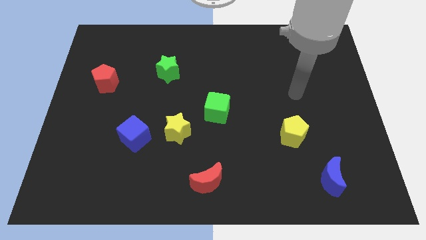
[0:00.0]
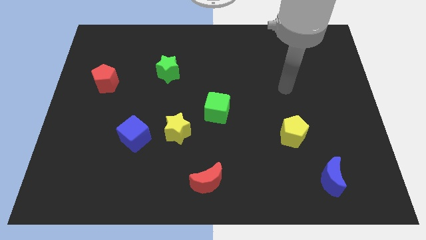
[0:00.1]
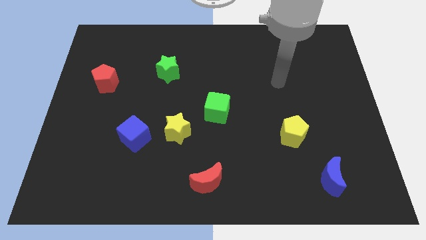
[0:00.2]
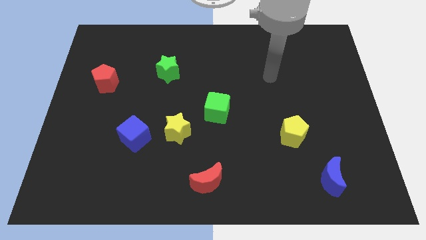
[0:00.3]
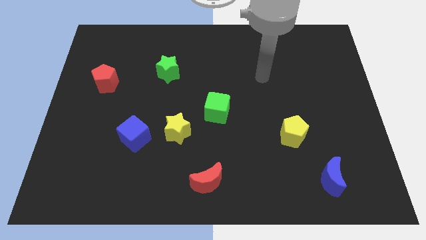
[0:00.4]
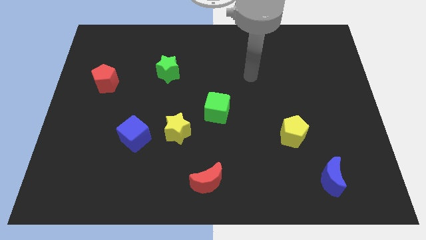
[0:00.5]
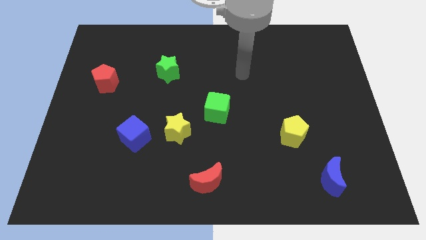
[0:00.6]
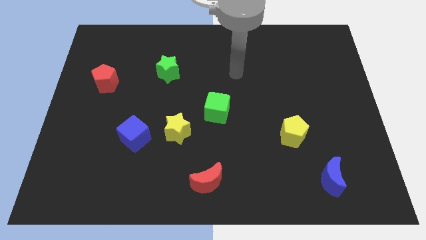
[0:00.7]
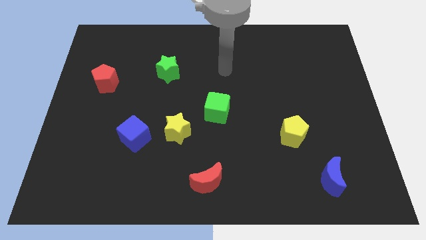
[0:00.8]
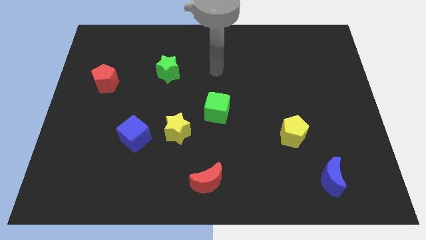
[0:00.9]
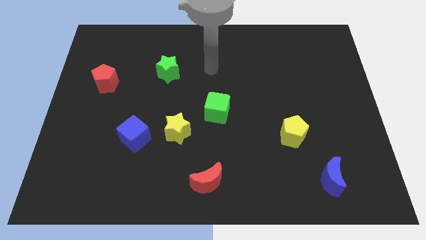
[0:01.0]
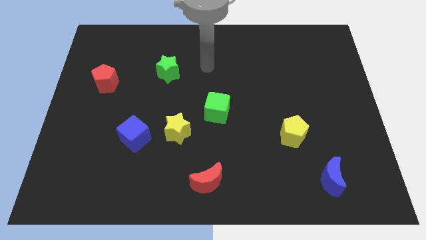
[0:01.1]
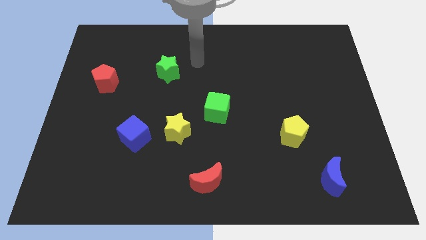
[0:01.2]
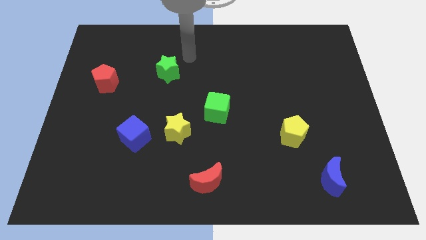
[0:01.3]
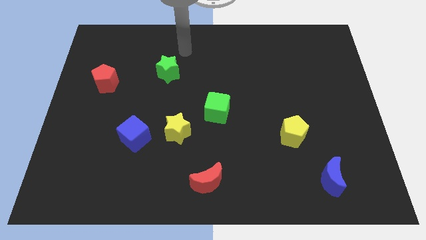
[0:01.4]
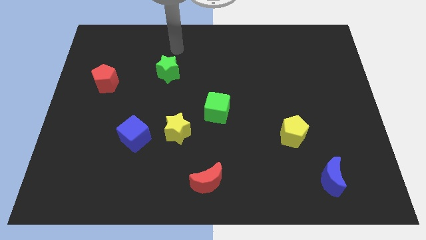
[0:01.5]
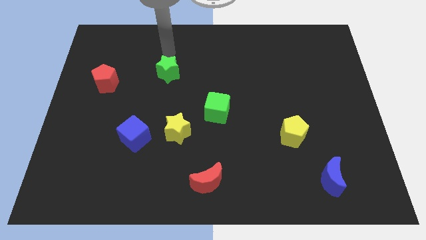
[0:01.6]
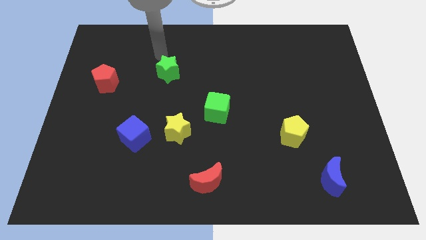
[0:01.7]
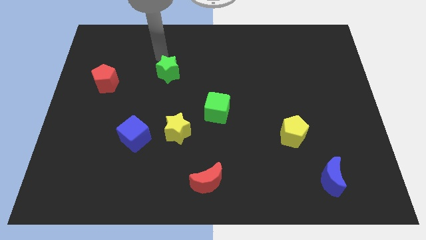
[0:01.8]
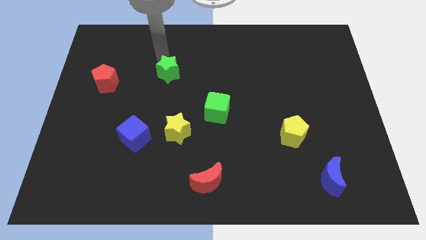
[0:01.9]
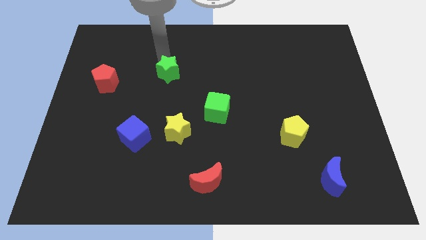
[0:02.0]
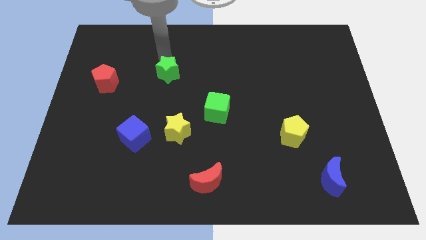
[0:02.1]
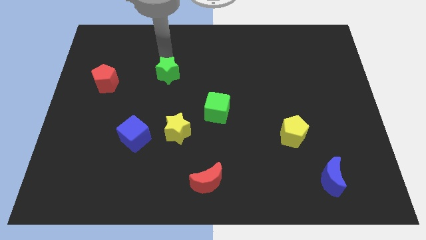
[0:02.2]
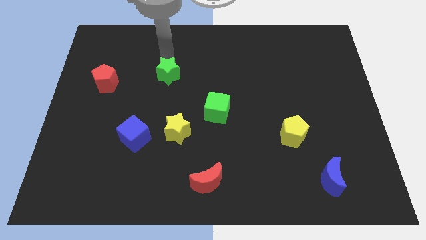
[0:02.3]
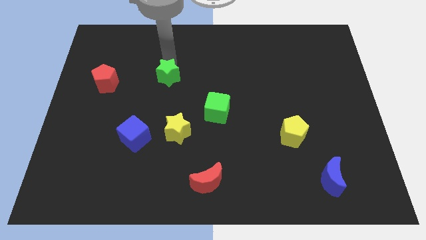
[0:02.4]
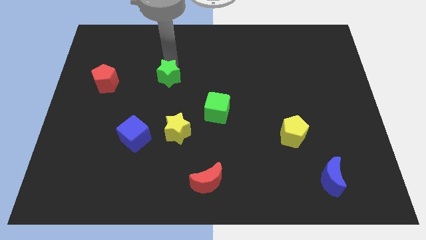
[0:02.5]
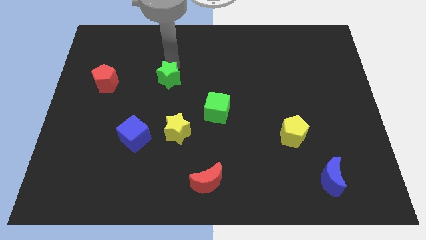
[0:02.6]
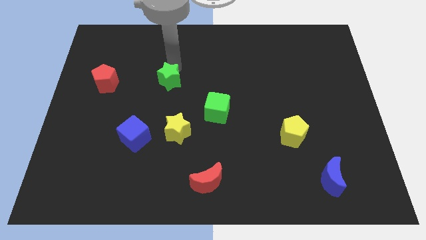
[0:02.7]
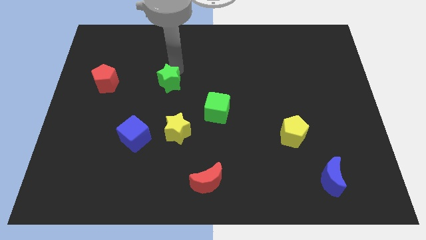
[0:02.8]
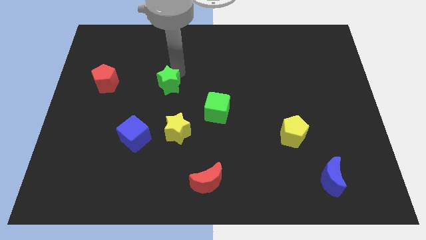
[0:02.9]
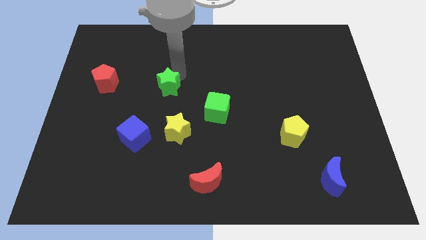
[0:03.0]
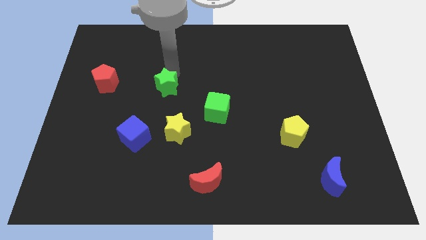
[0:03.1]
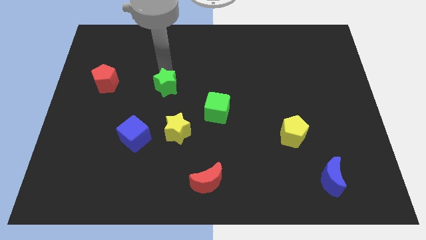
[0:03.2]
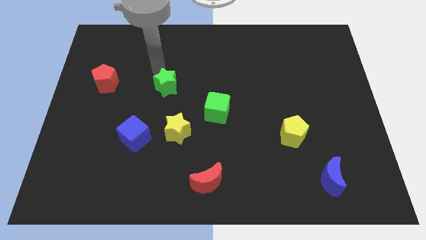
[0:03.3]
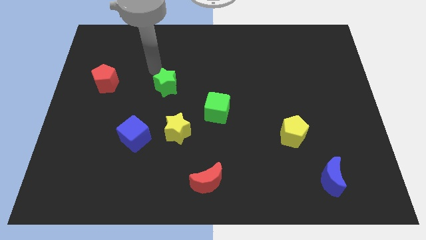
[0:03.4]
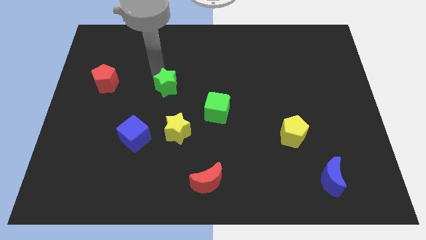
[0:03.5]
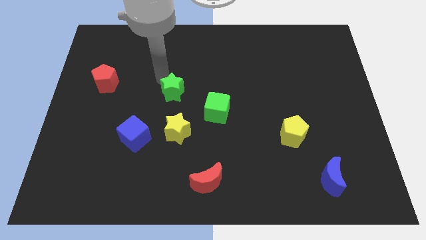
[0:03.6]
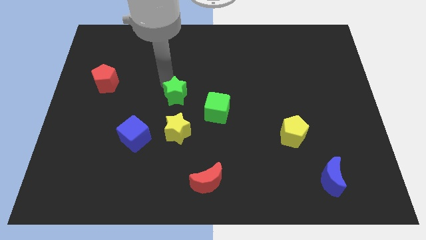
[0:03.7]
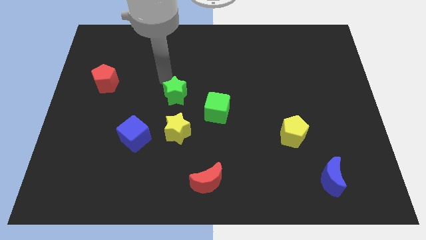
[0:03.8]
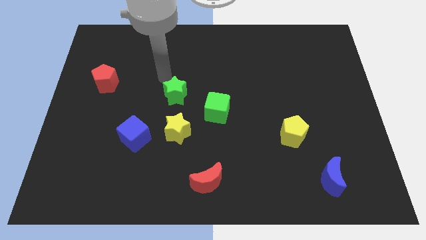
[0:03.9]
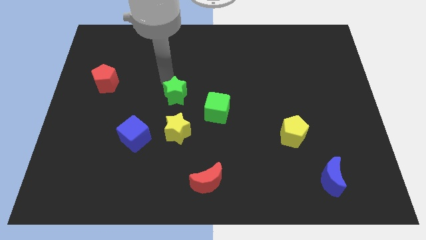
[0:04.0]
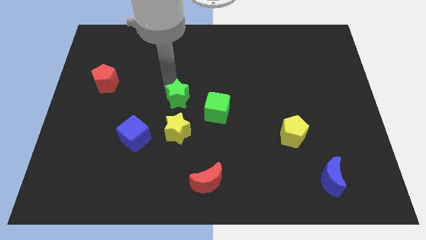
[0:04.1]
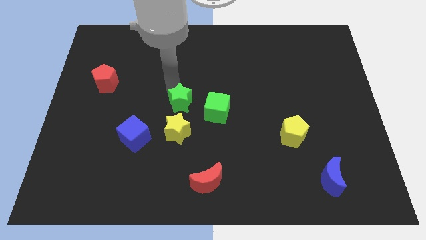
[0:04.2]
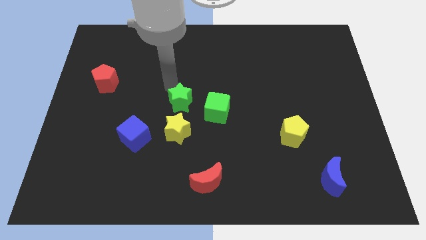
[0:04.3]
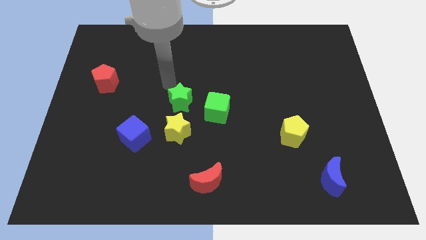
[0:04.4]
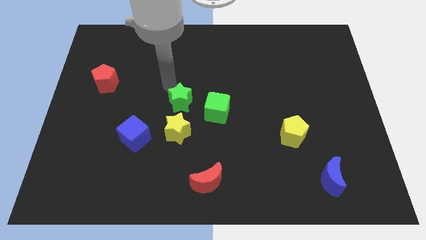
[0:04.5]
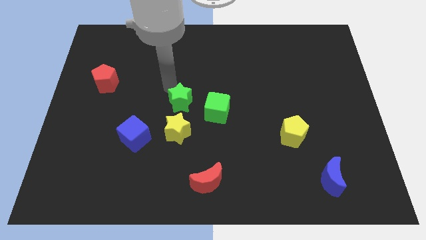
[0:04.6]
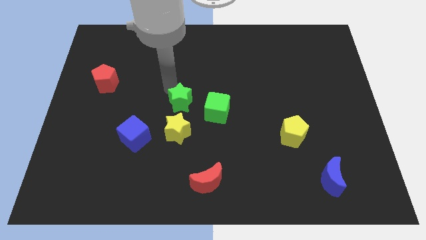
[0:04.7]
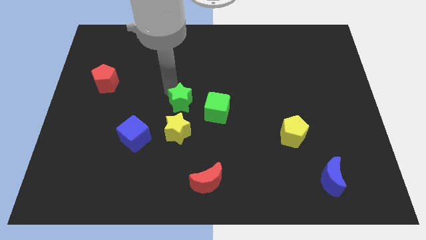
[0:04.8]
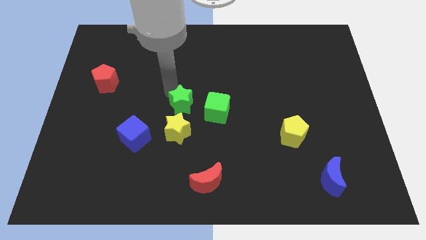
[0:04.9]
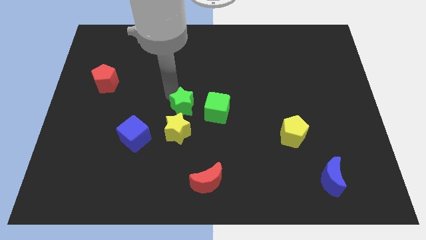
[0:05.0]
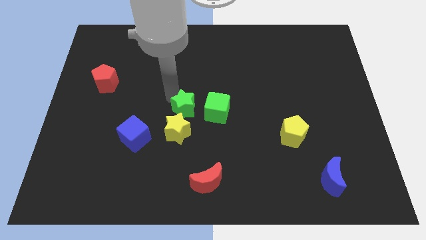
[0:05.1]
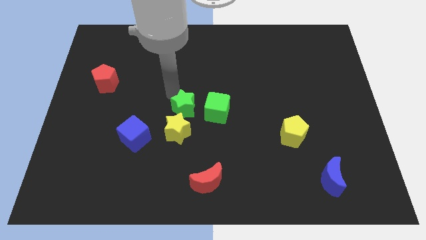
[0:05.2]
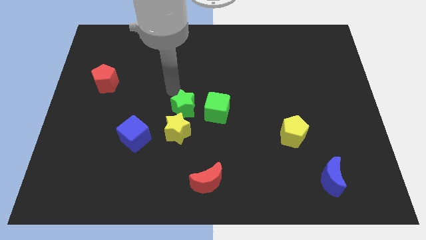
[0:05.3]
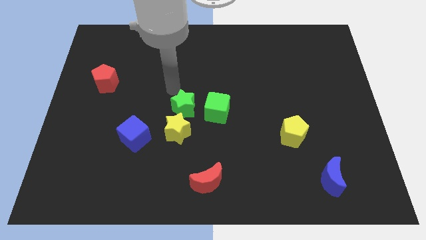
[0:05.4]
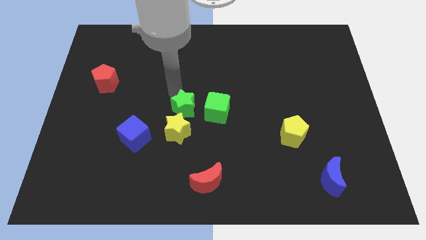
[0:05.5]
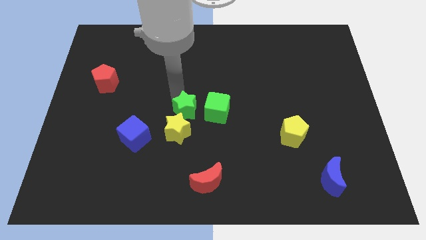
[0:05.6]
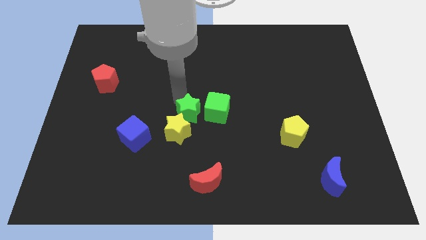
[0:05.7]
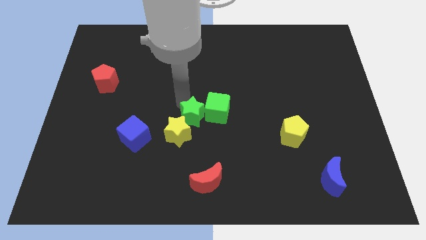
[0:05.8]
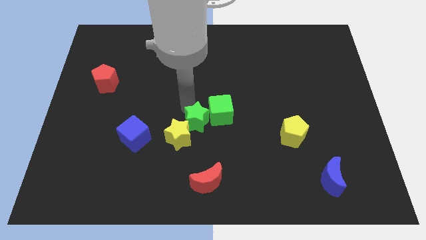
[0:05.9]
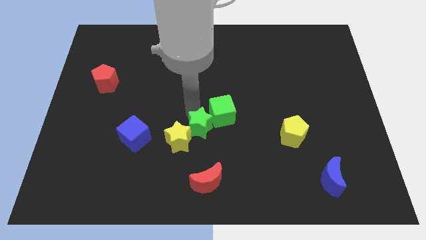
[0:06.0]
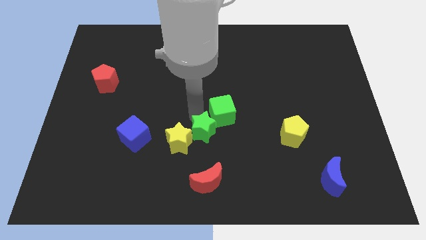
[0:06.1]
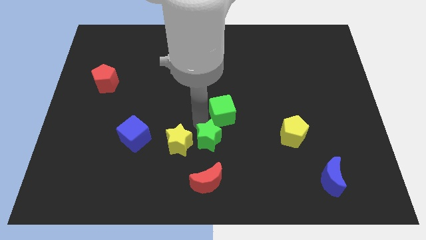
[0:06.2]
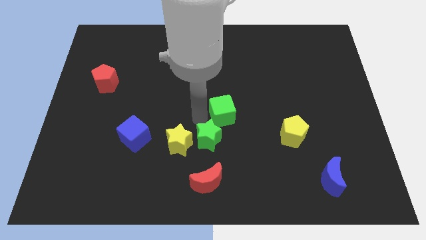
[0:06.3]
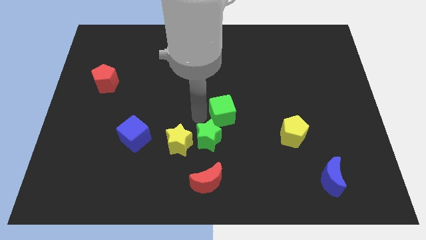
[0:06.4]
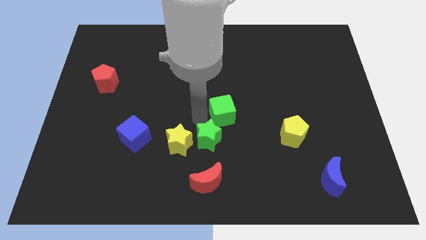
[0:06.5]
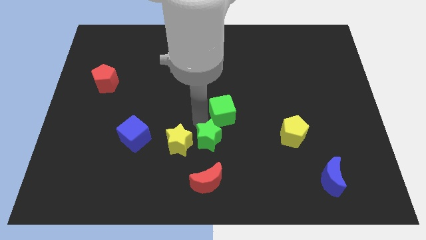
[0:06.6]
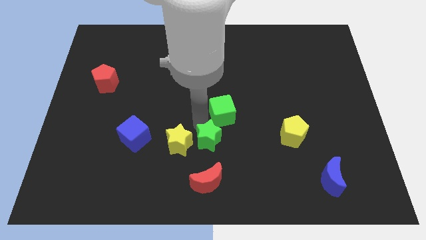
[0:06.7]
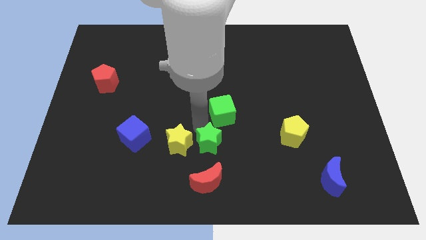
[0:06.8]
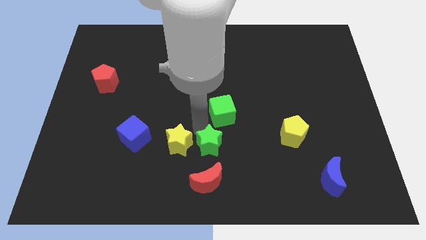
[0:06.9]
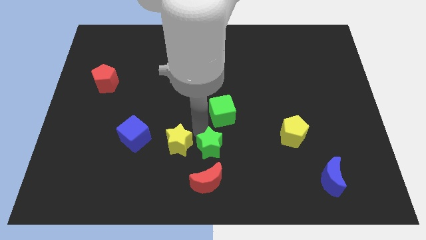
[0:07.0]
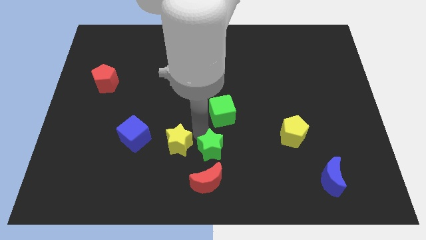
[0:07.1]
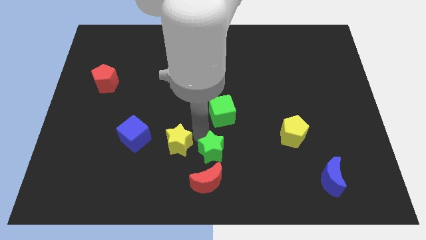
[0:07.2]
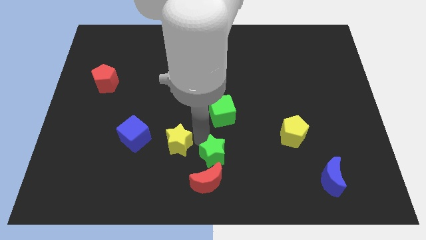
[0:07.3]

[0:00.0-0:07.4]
put the green star to the bottom
